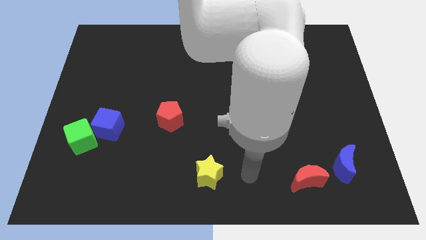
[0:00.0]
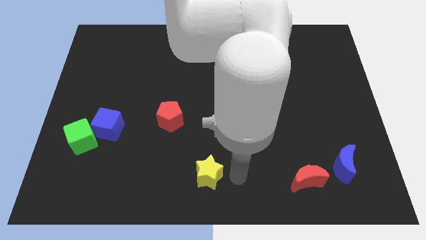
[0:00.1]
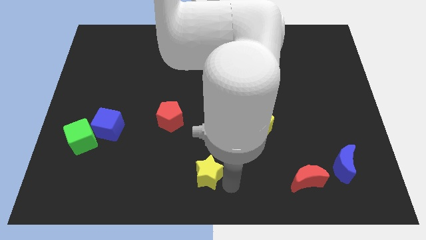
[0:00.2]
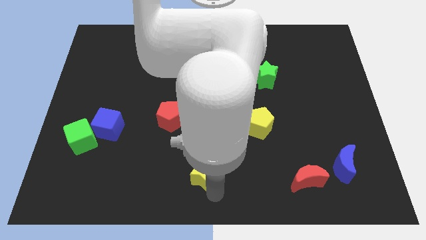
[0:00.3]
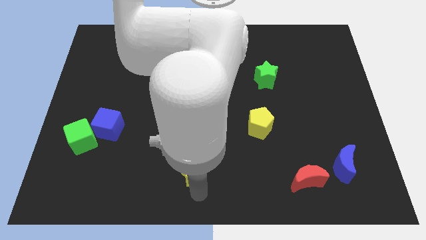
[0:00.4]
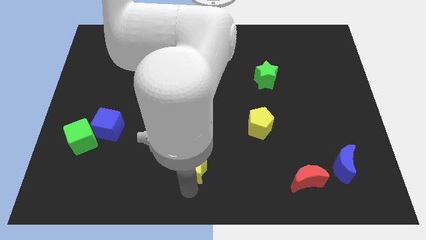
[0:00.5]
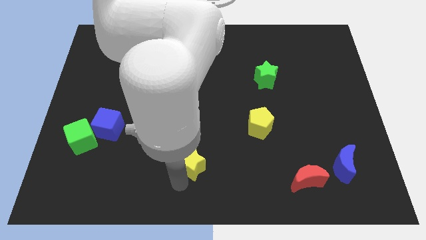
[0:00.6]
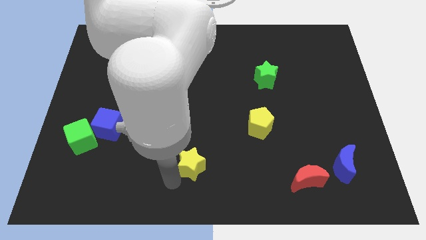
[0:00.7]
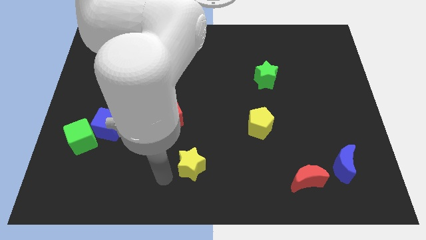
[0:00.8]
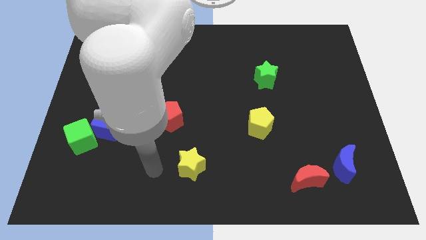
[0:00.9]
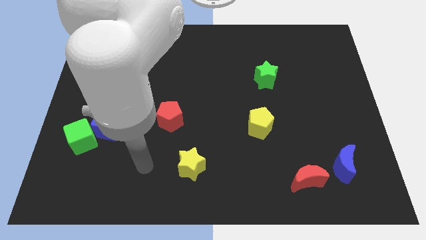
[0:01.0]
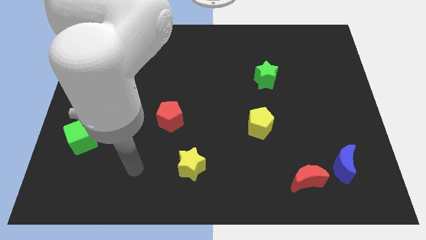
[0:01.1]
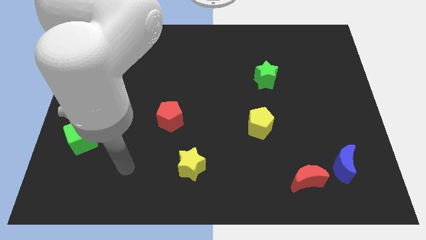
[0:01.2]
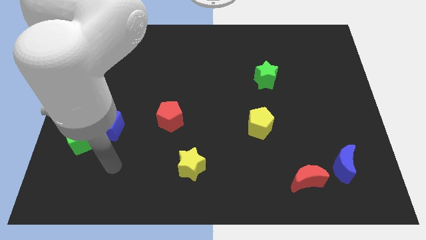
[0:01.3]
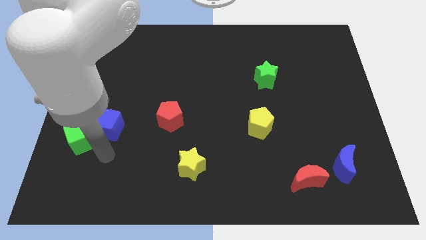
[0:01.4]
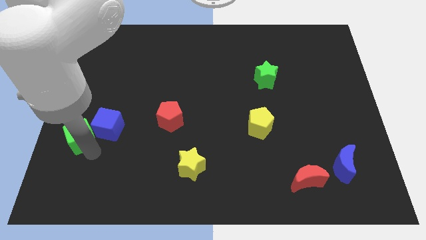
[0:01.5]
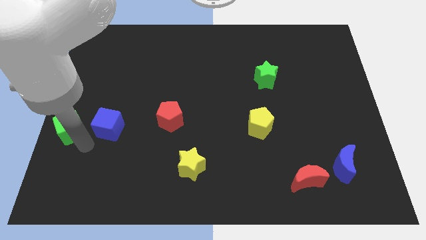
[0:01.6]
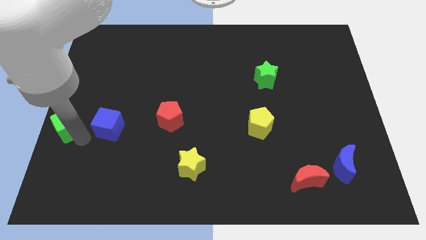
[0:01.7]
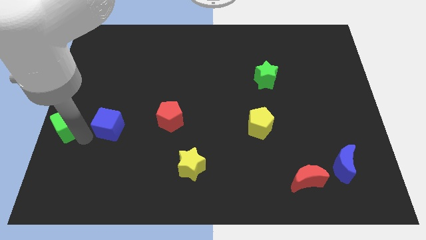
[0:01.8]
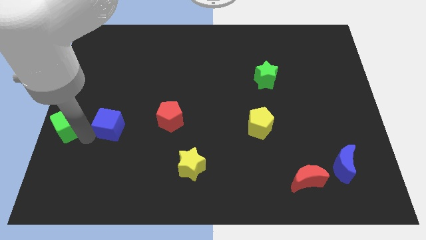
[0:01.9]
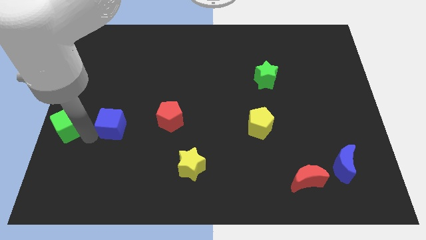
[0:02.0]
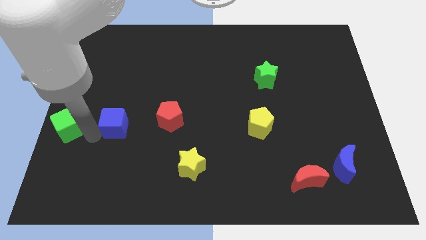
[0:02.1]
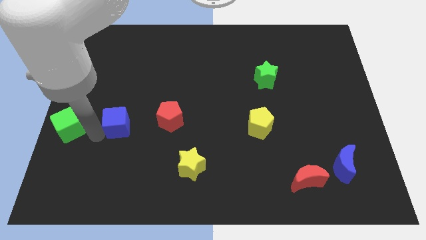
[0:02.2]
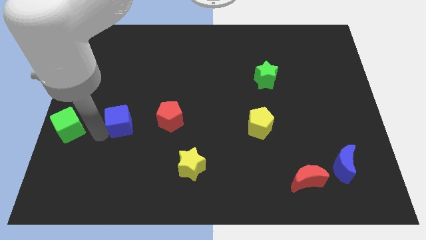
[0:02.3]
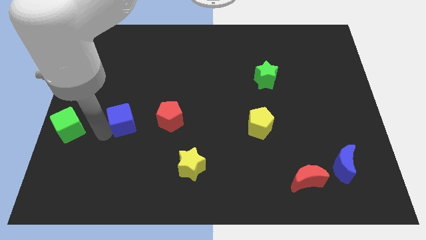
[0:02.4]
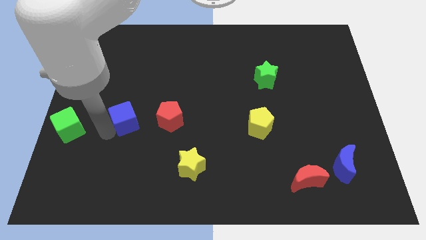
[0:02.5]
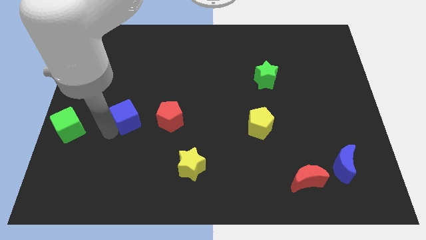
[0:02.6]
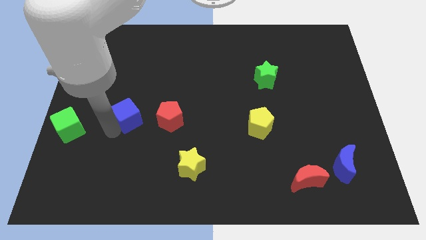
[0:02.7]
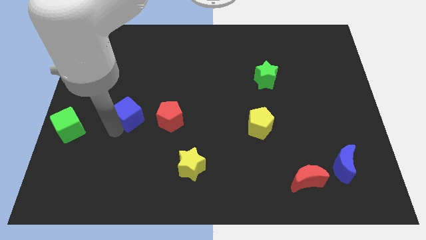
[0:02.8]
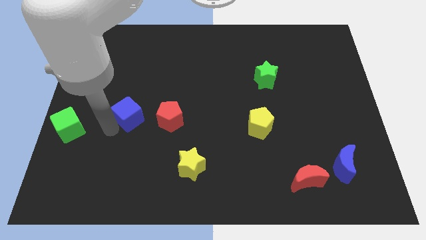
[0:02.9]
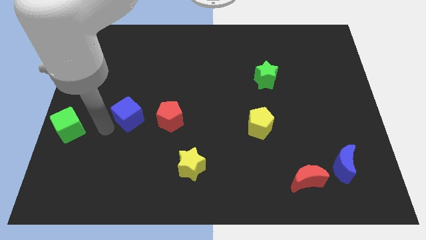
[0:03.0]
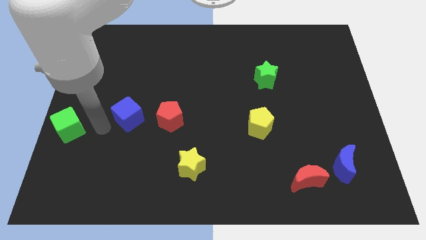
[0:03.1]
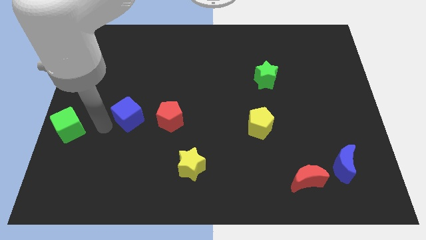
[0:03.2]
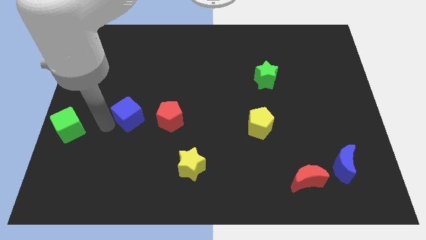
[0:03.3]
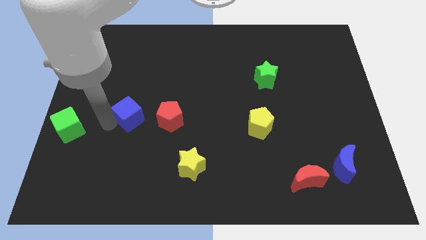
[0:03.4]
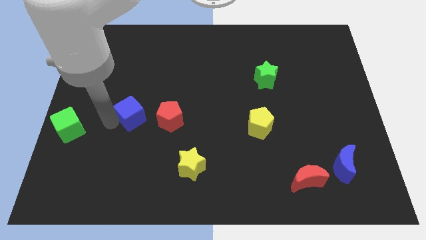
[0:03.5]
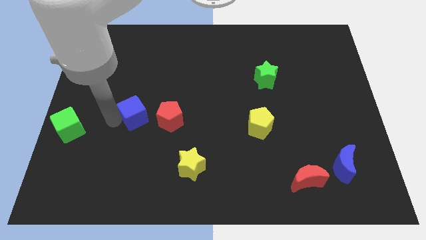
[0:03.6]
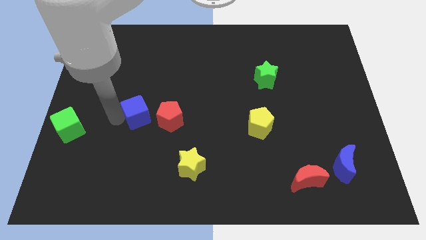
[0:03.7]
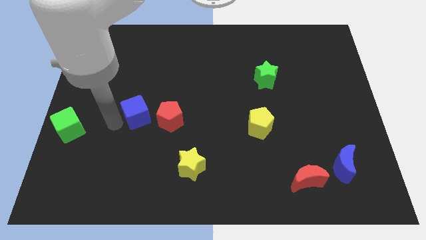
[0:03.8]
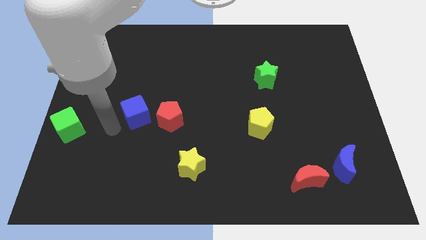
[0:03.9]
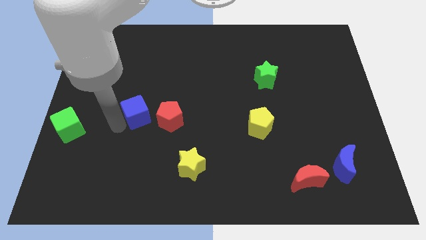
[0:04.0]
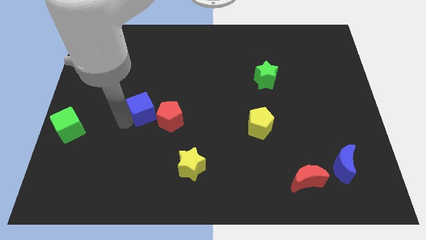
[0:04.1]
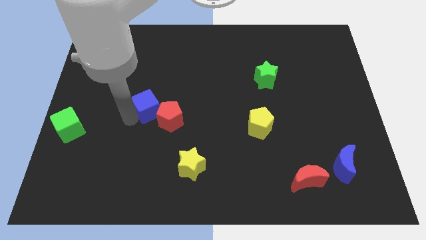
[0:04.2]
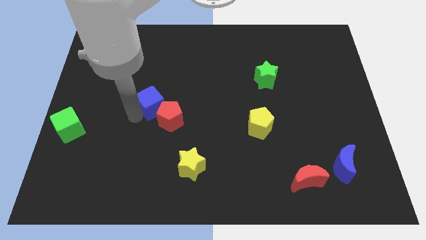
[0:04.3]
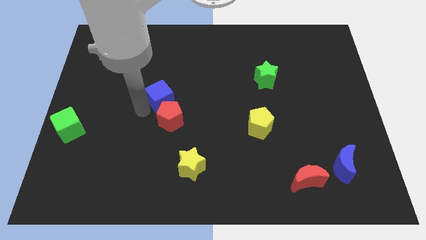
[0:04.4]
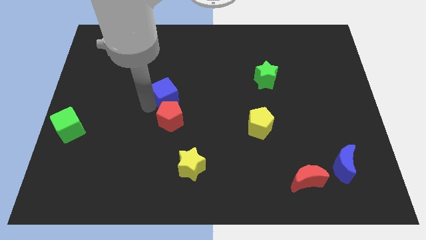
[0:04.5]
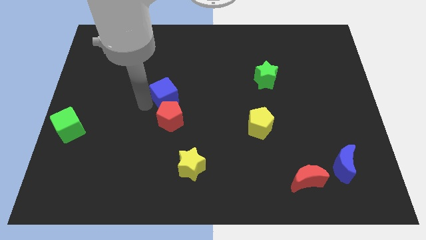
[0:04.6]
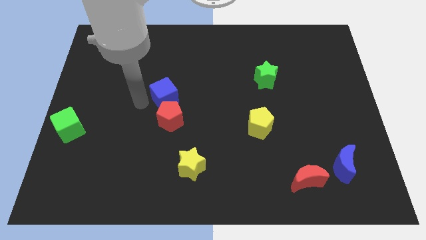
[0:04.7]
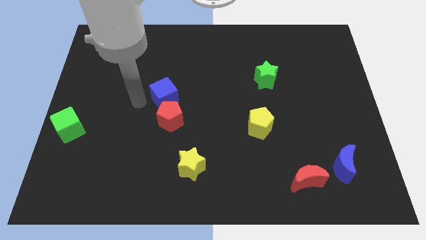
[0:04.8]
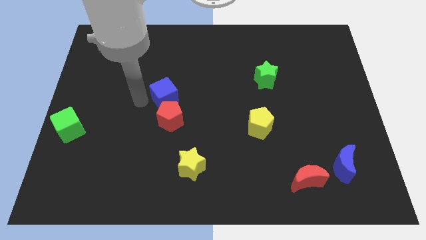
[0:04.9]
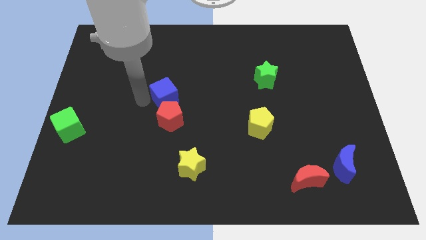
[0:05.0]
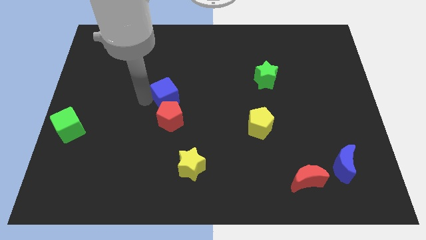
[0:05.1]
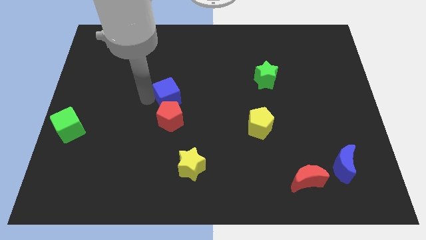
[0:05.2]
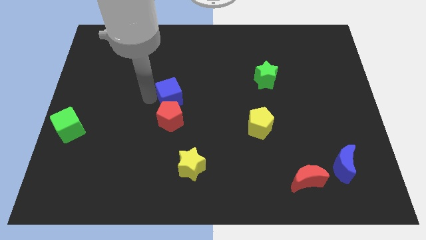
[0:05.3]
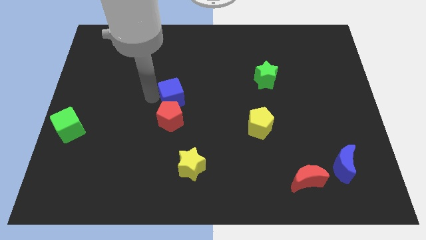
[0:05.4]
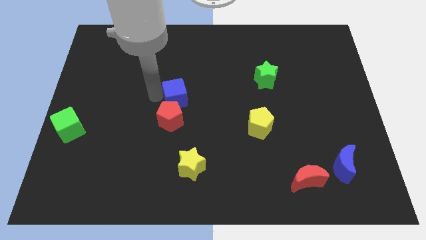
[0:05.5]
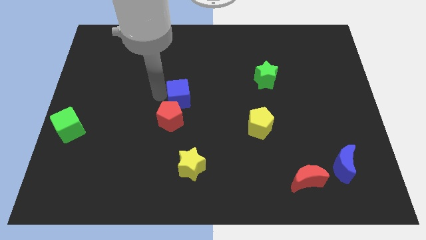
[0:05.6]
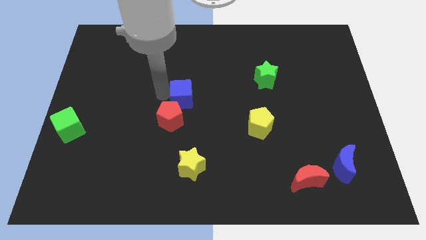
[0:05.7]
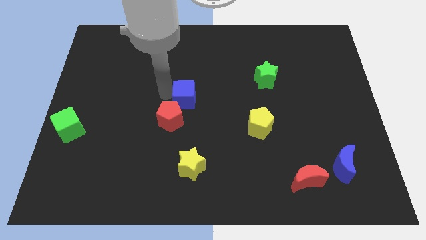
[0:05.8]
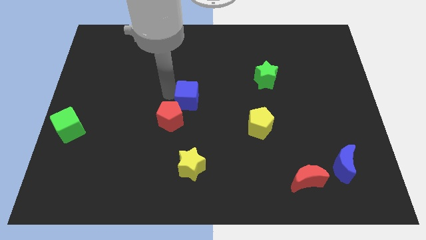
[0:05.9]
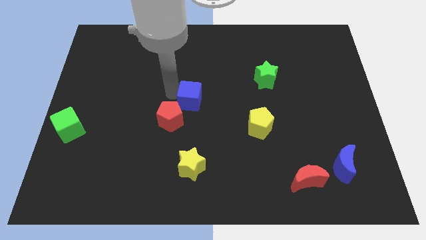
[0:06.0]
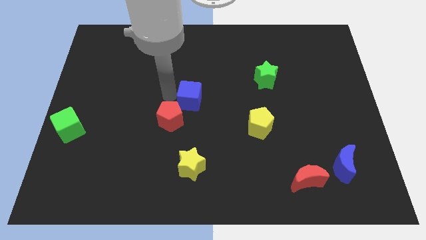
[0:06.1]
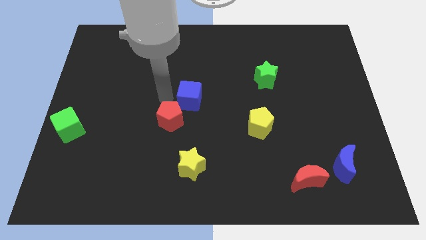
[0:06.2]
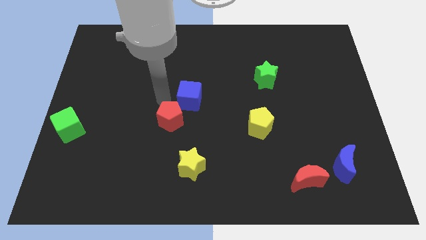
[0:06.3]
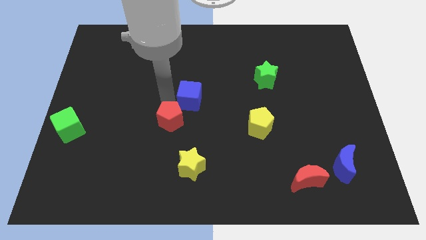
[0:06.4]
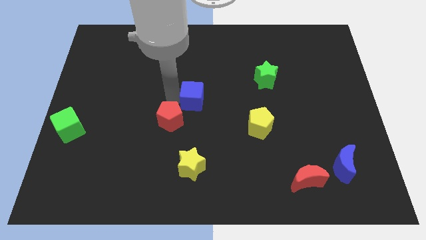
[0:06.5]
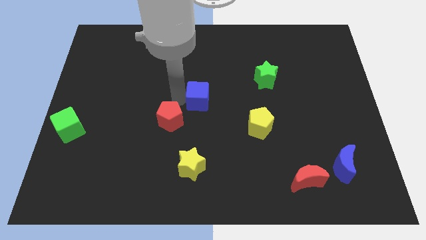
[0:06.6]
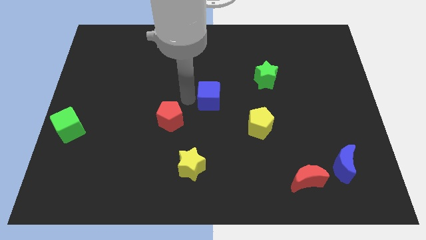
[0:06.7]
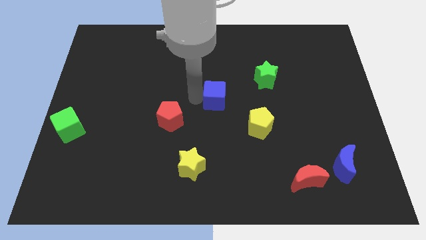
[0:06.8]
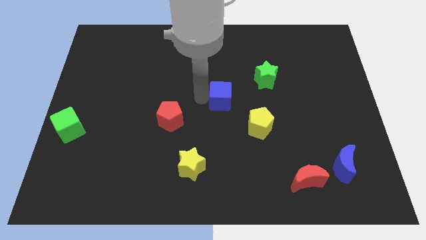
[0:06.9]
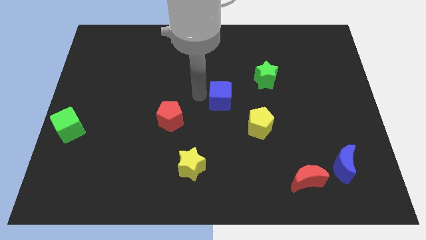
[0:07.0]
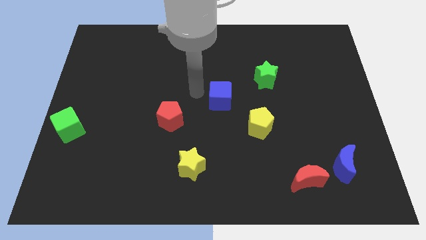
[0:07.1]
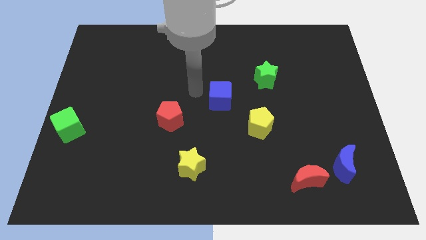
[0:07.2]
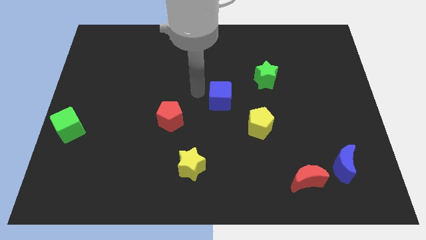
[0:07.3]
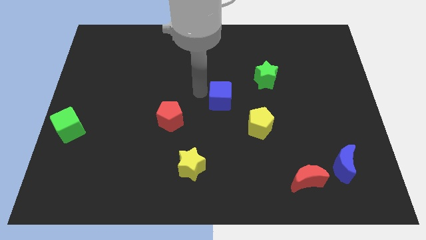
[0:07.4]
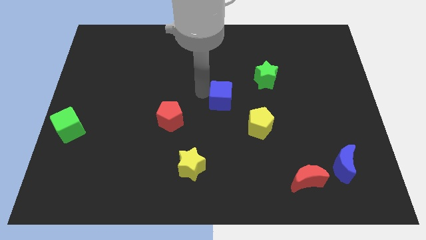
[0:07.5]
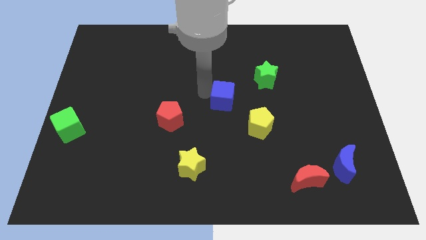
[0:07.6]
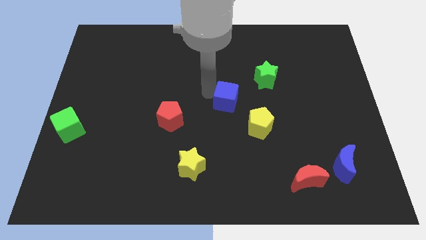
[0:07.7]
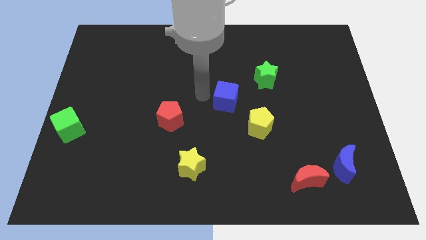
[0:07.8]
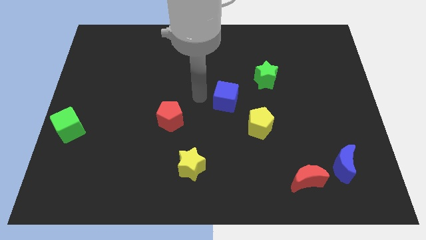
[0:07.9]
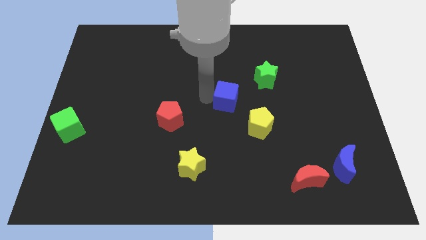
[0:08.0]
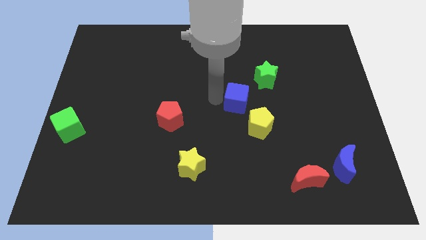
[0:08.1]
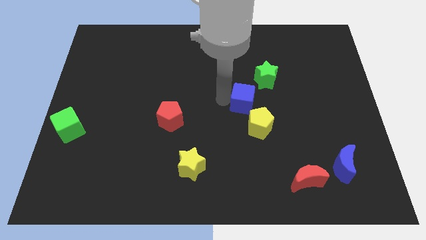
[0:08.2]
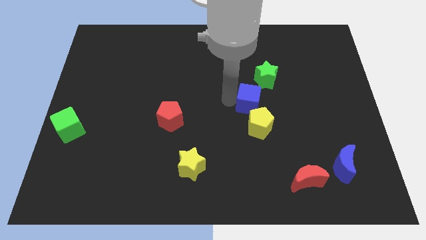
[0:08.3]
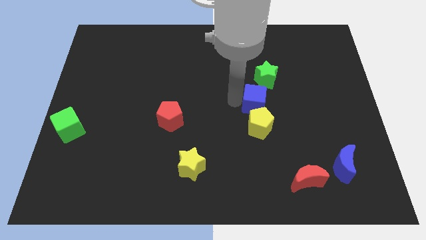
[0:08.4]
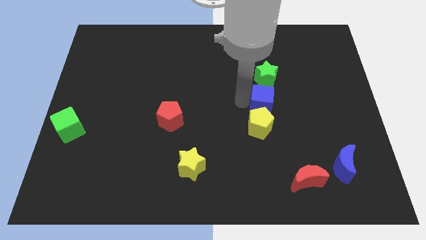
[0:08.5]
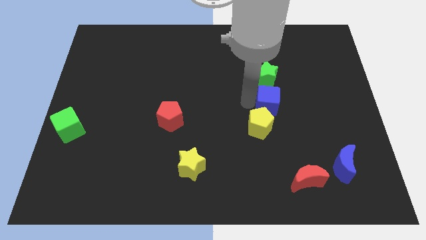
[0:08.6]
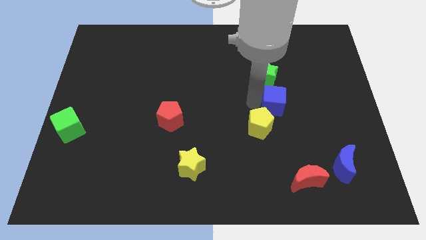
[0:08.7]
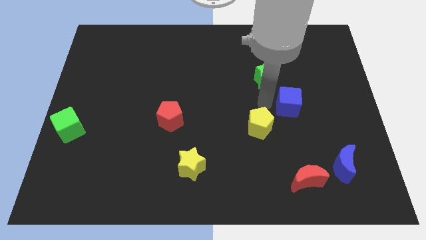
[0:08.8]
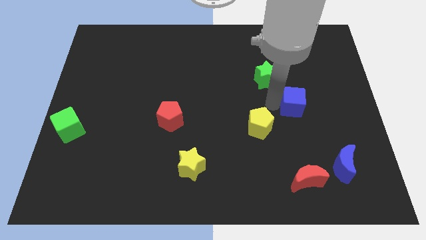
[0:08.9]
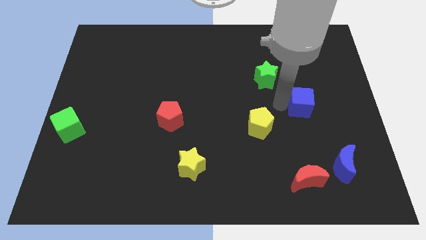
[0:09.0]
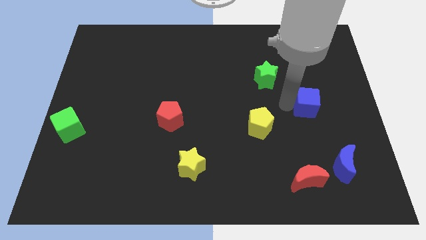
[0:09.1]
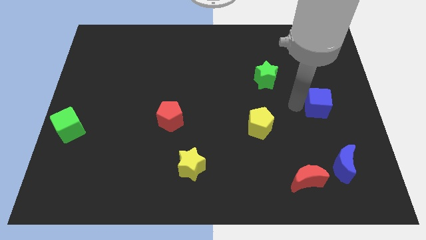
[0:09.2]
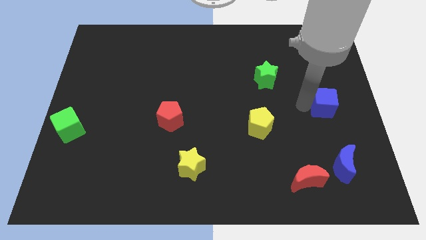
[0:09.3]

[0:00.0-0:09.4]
put the blue cube to the right side
